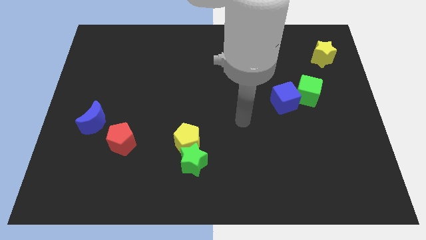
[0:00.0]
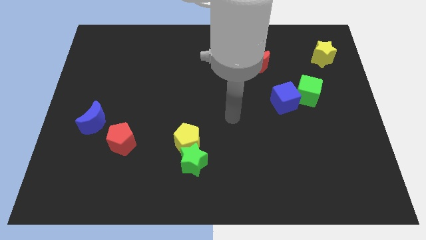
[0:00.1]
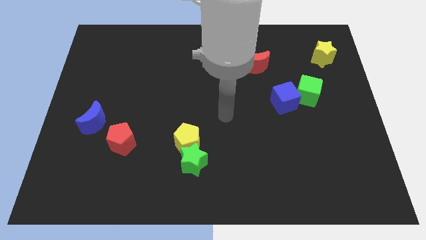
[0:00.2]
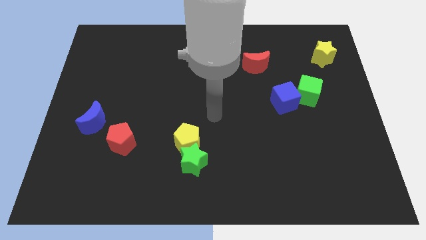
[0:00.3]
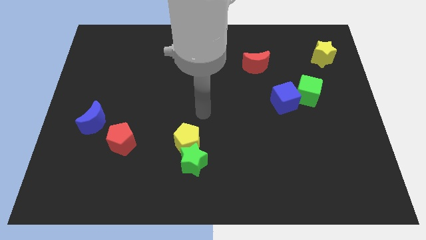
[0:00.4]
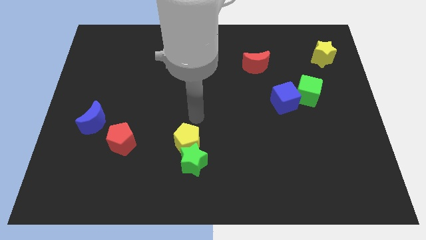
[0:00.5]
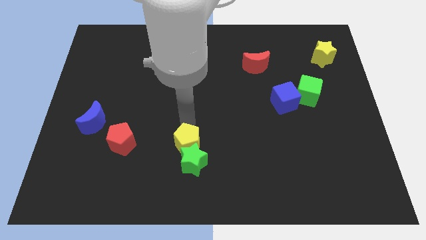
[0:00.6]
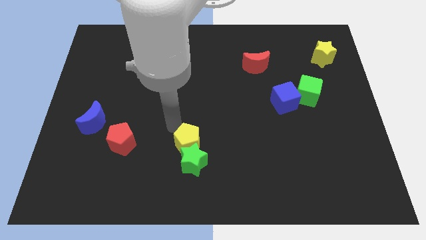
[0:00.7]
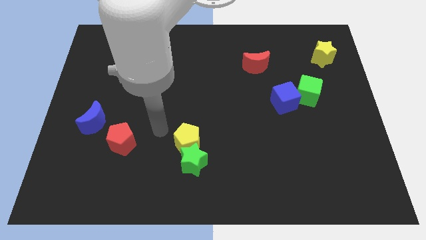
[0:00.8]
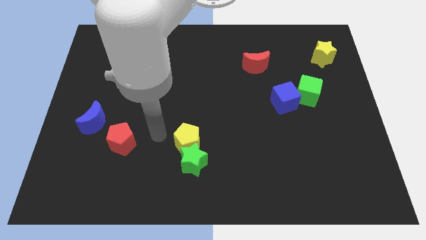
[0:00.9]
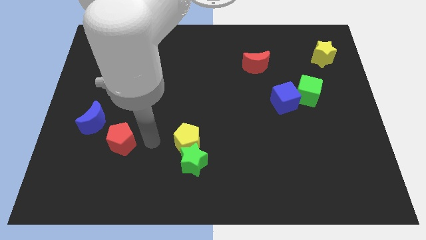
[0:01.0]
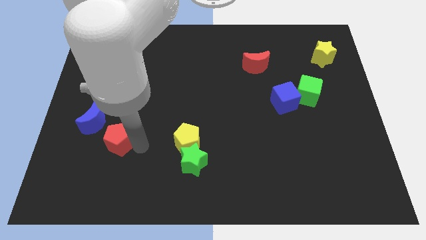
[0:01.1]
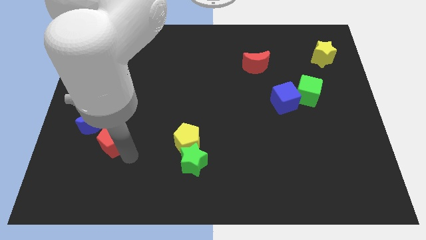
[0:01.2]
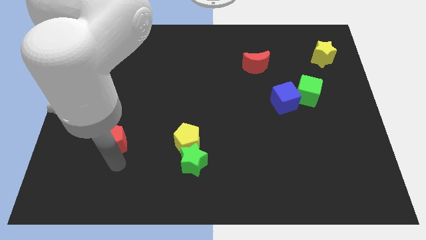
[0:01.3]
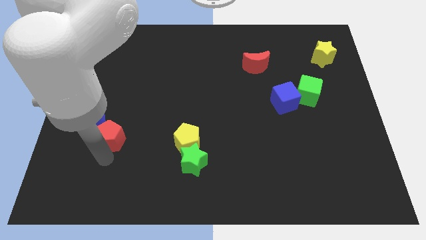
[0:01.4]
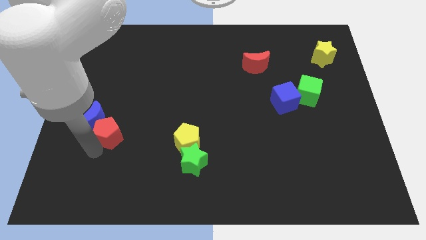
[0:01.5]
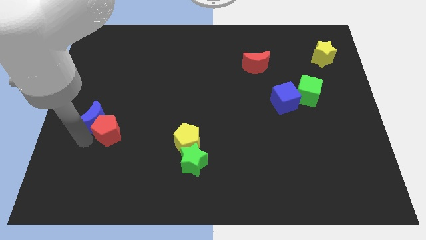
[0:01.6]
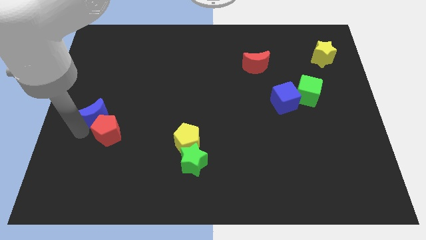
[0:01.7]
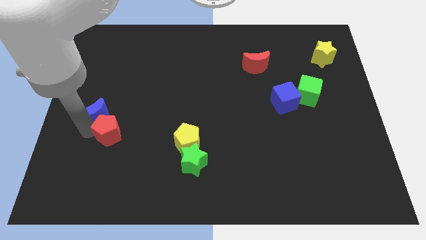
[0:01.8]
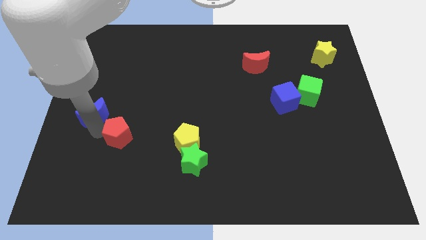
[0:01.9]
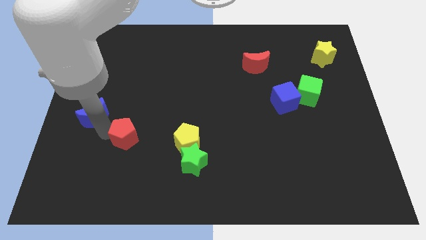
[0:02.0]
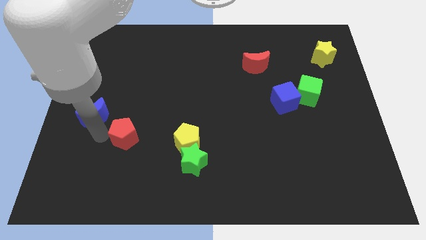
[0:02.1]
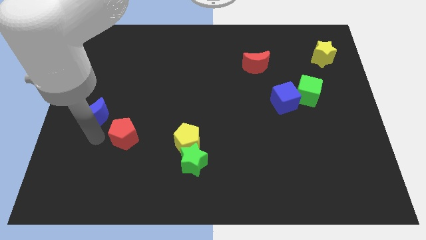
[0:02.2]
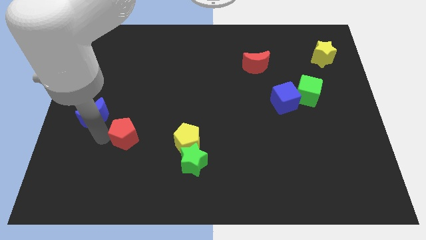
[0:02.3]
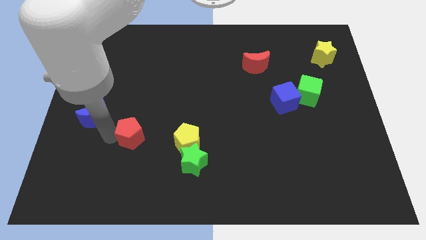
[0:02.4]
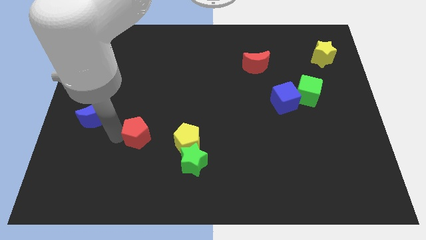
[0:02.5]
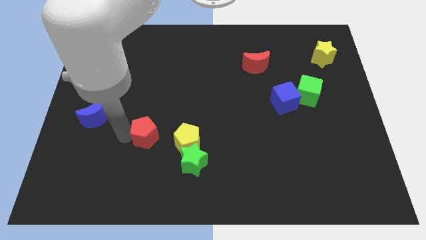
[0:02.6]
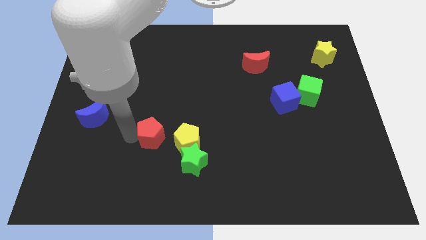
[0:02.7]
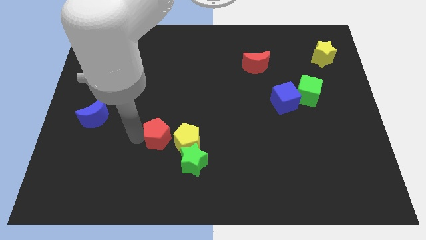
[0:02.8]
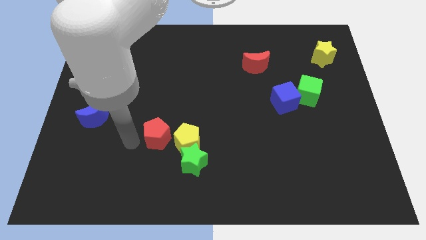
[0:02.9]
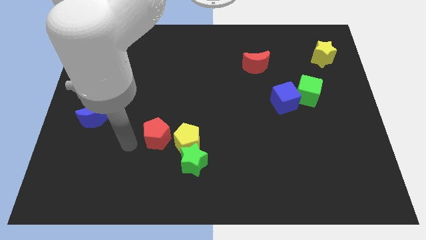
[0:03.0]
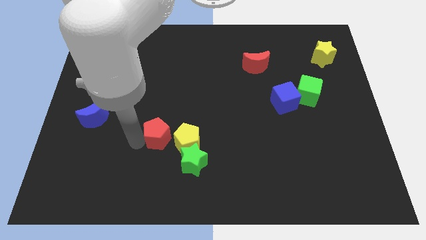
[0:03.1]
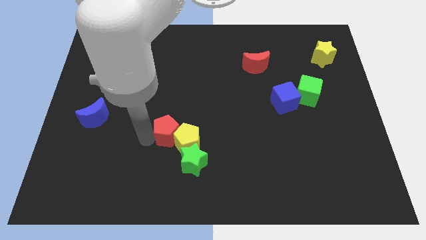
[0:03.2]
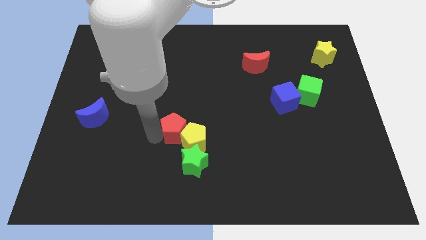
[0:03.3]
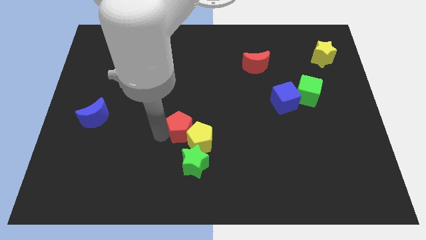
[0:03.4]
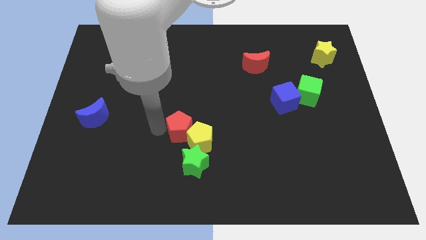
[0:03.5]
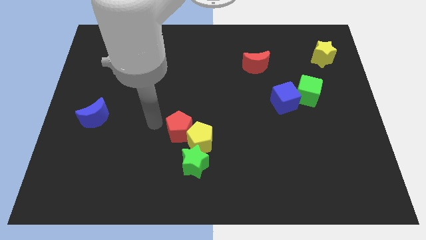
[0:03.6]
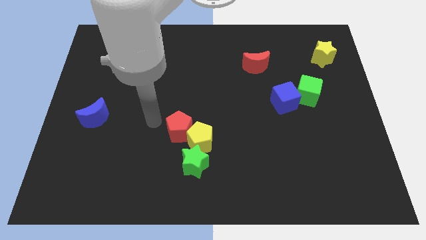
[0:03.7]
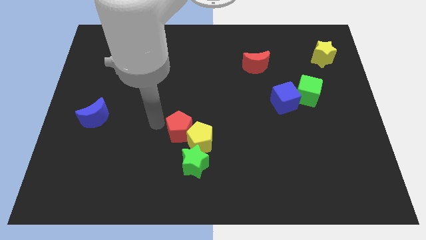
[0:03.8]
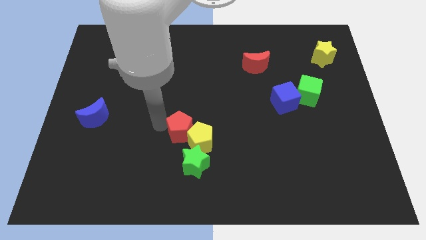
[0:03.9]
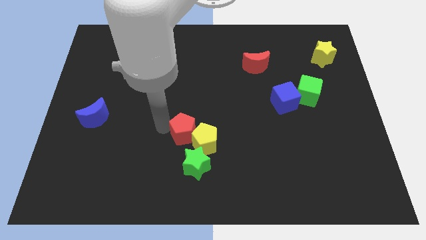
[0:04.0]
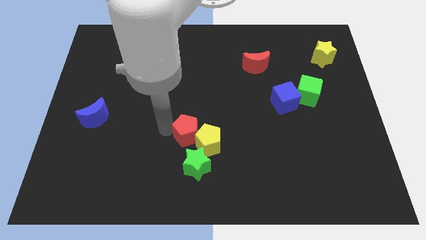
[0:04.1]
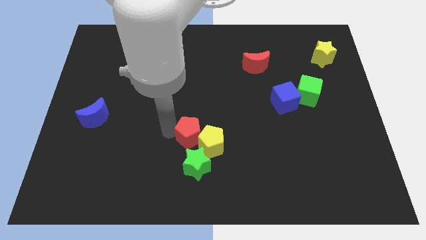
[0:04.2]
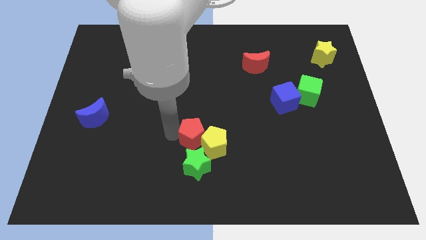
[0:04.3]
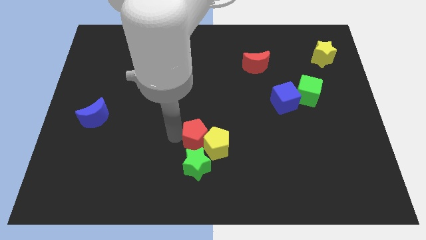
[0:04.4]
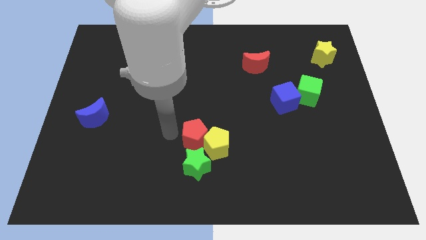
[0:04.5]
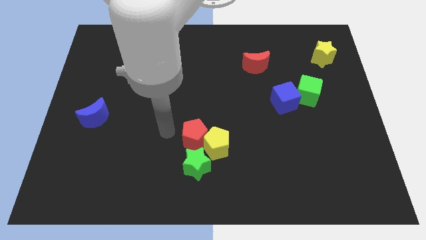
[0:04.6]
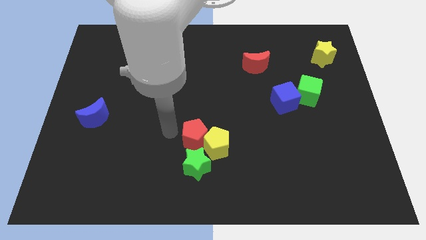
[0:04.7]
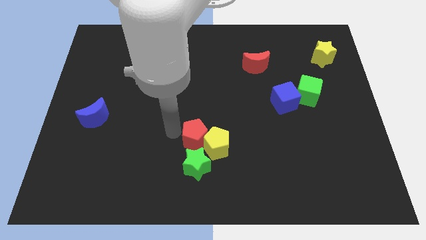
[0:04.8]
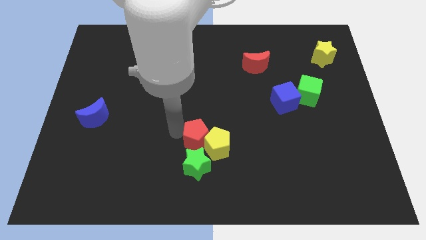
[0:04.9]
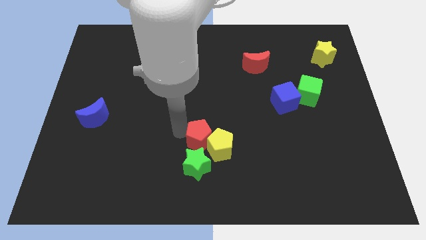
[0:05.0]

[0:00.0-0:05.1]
move the red pentagon diagonally up and to the right of the green star

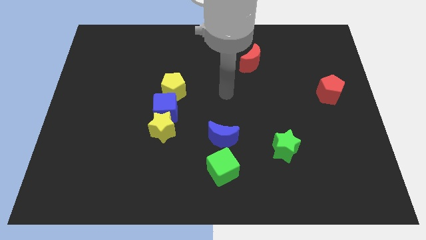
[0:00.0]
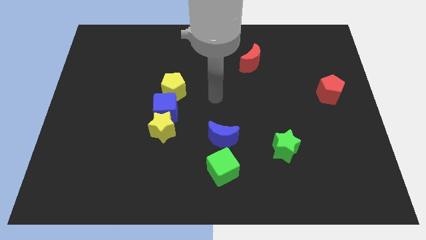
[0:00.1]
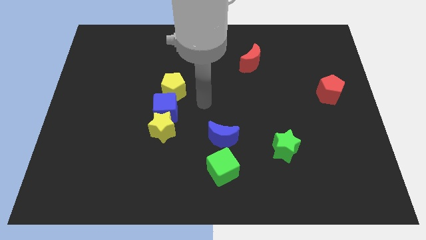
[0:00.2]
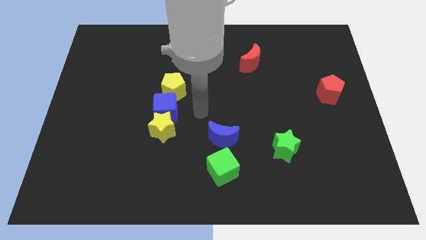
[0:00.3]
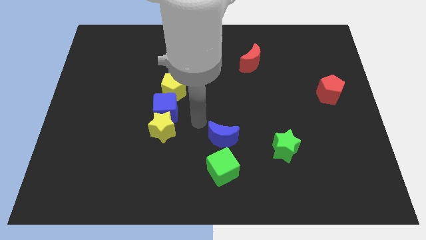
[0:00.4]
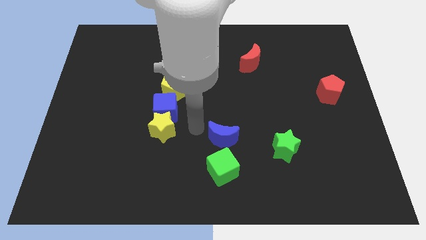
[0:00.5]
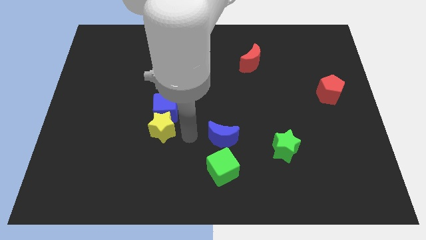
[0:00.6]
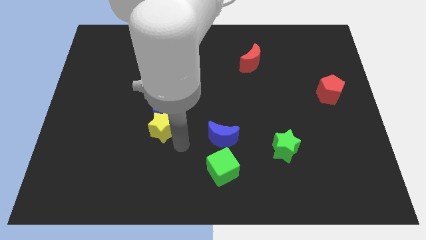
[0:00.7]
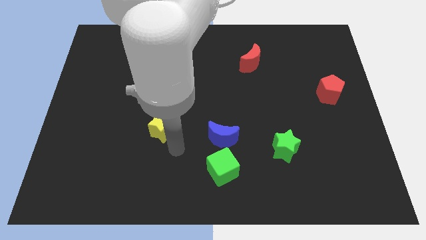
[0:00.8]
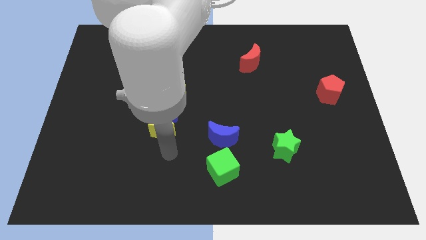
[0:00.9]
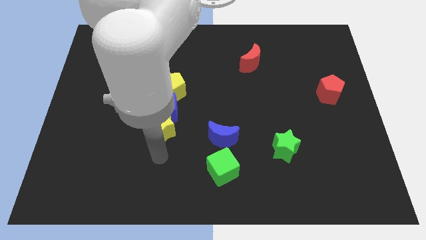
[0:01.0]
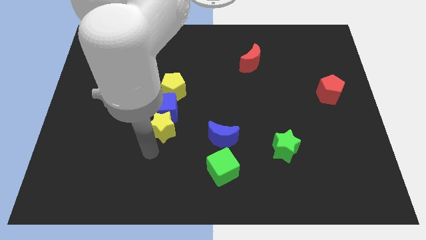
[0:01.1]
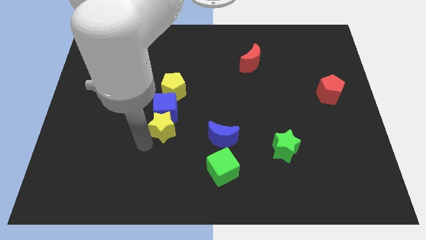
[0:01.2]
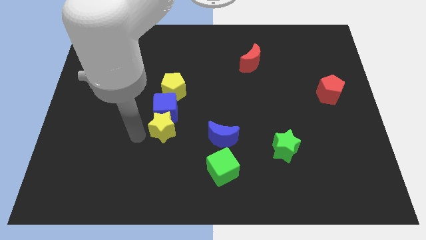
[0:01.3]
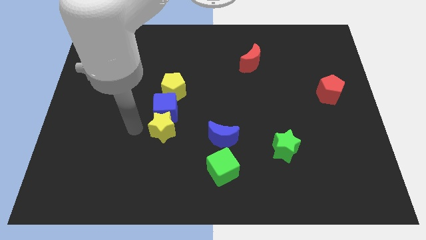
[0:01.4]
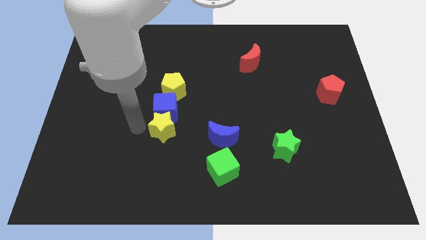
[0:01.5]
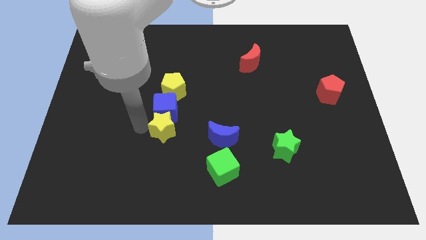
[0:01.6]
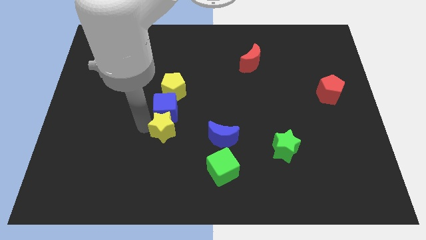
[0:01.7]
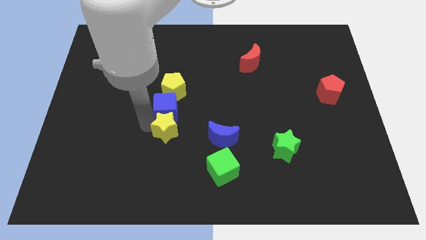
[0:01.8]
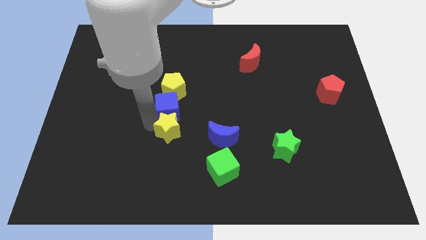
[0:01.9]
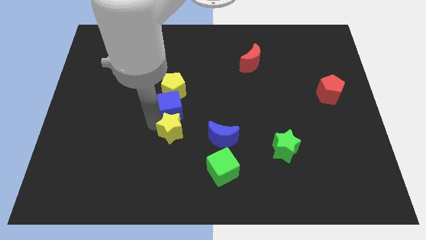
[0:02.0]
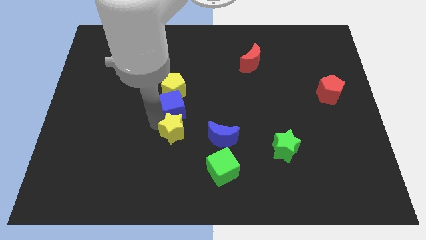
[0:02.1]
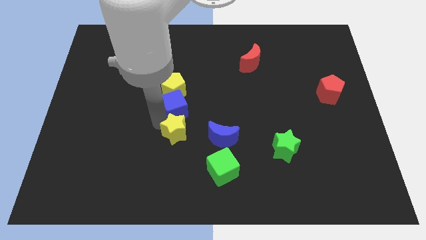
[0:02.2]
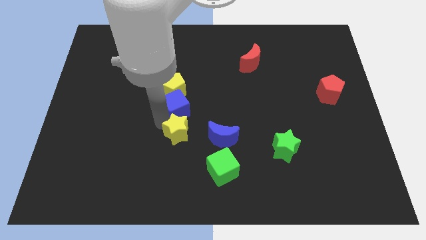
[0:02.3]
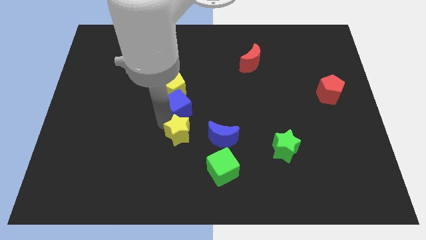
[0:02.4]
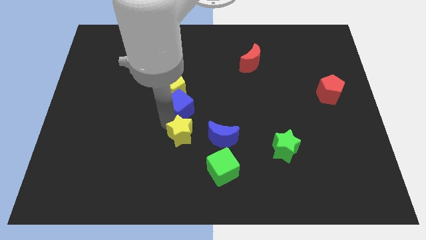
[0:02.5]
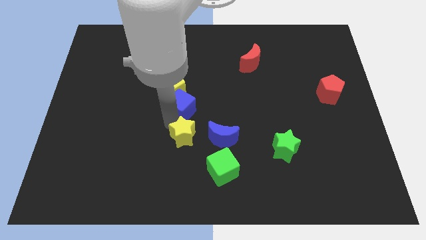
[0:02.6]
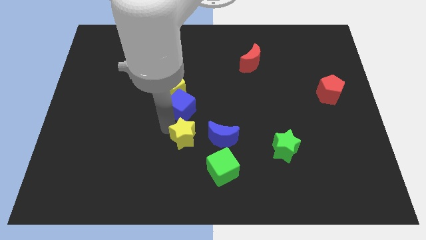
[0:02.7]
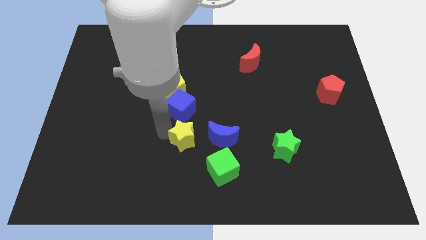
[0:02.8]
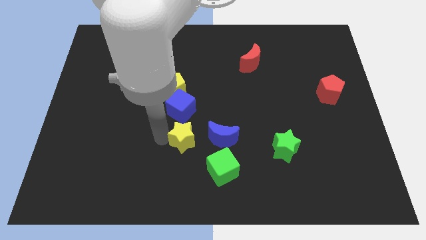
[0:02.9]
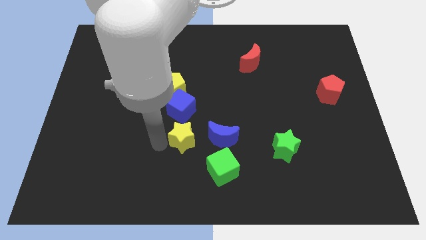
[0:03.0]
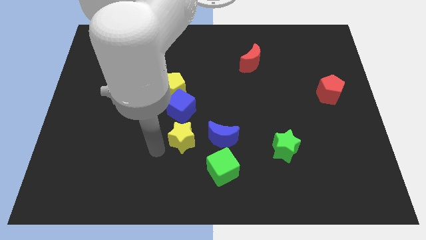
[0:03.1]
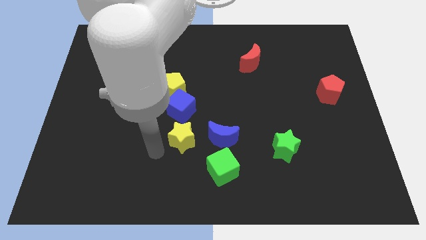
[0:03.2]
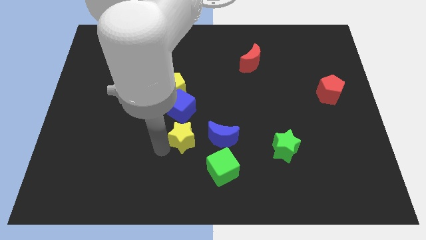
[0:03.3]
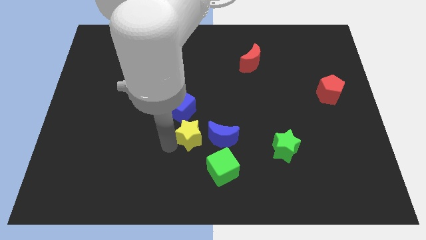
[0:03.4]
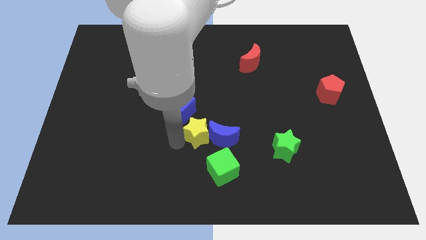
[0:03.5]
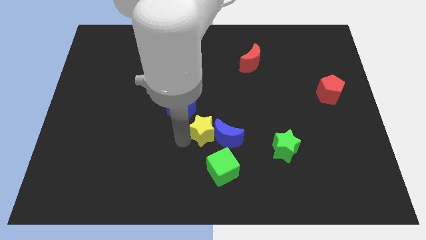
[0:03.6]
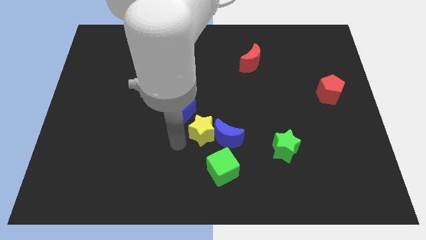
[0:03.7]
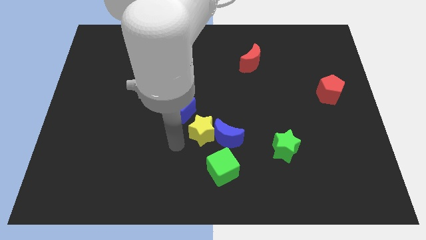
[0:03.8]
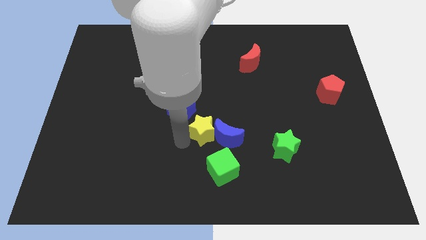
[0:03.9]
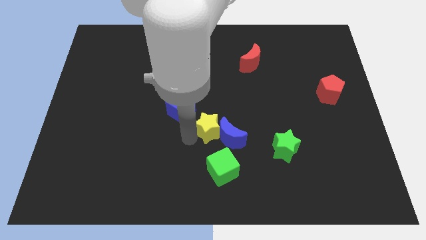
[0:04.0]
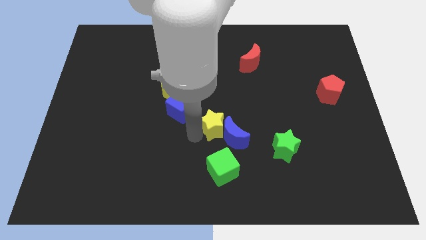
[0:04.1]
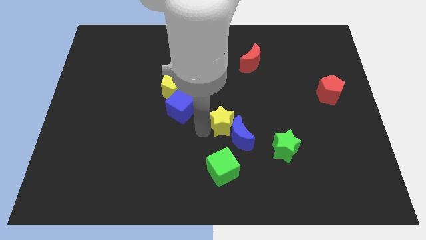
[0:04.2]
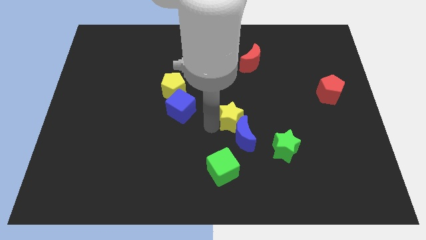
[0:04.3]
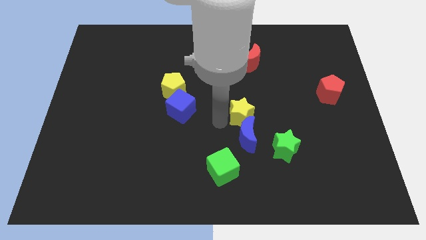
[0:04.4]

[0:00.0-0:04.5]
put the yellow star to the top right side of the blue moon
